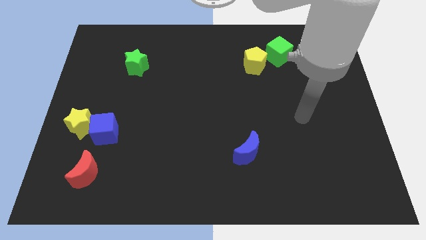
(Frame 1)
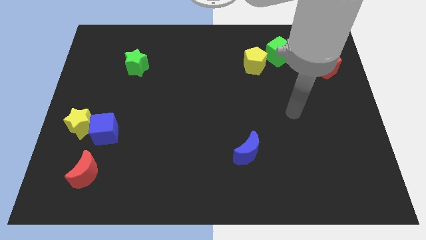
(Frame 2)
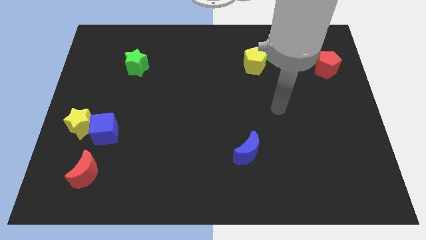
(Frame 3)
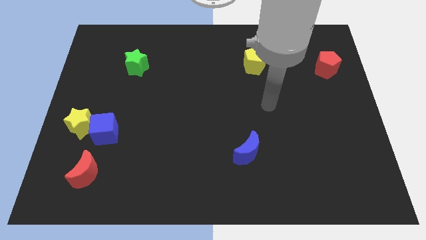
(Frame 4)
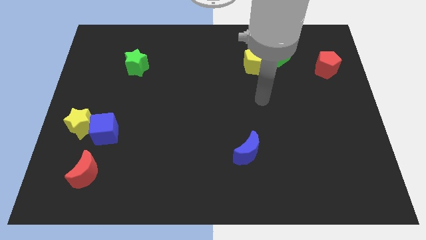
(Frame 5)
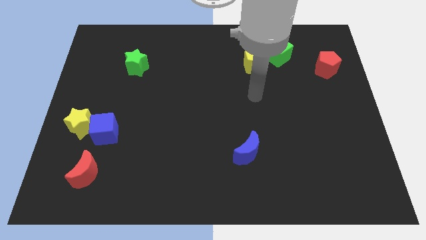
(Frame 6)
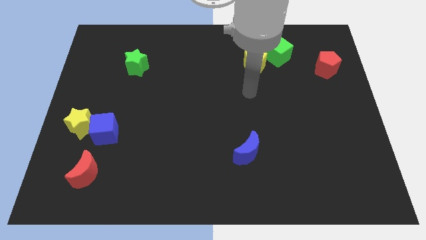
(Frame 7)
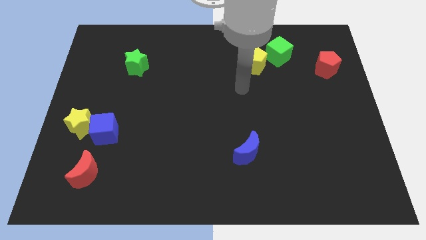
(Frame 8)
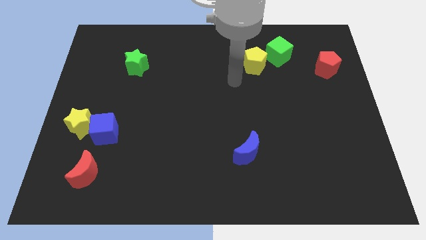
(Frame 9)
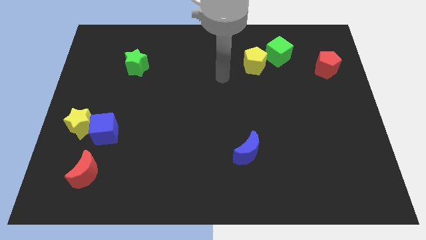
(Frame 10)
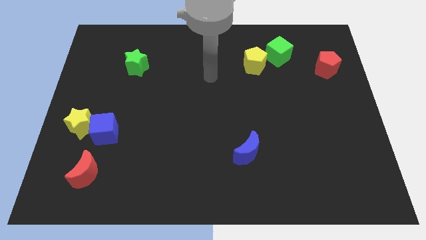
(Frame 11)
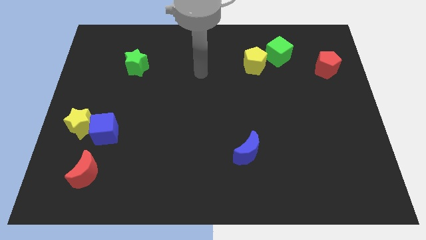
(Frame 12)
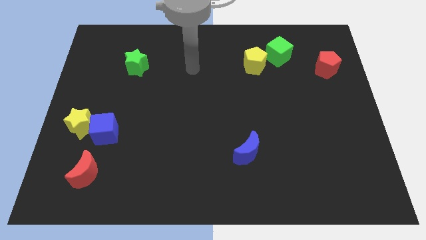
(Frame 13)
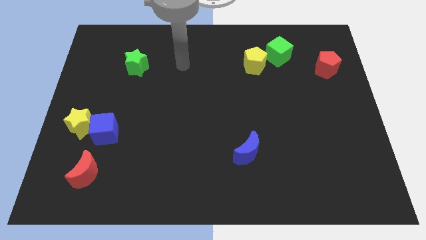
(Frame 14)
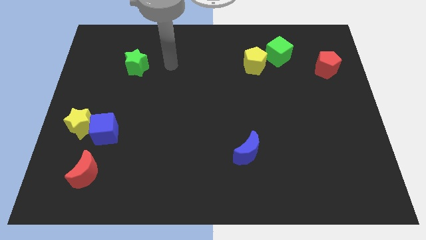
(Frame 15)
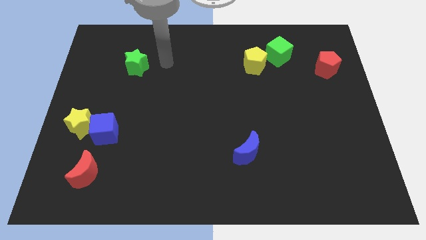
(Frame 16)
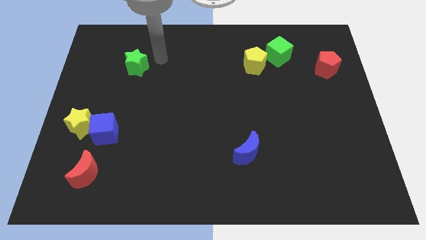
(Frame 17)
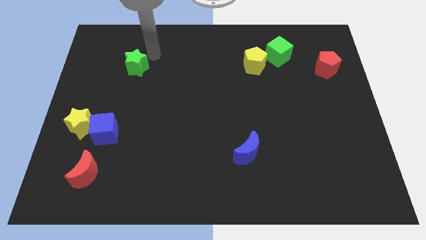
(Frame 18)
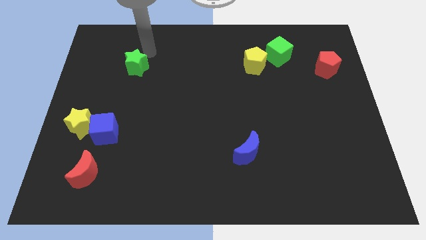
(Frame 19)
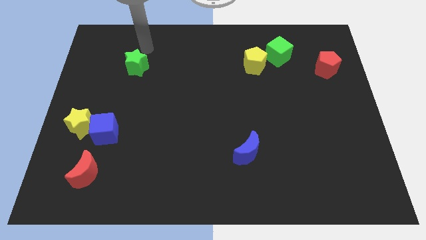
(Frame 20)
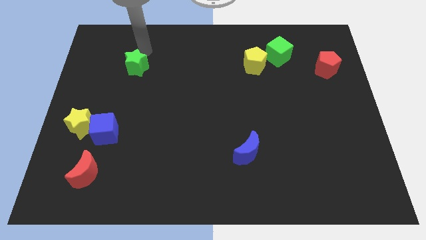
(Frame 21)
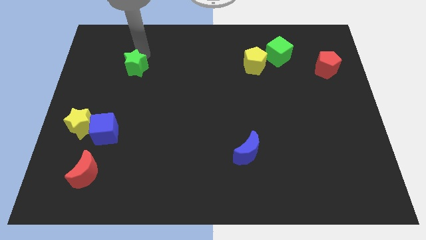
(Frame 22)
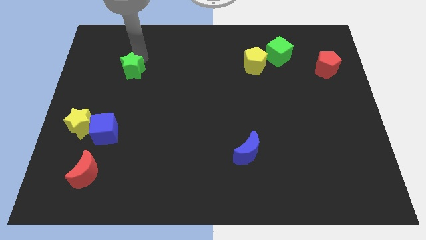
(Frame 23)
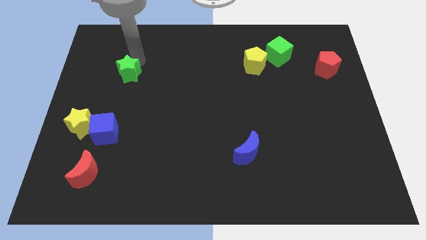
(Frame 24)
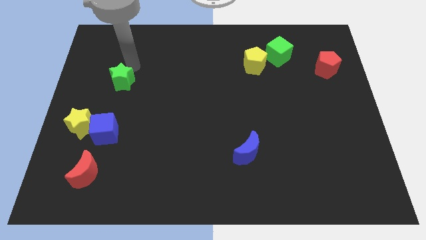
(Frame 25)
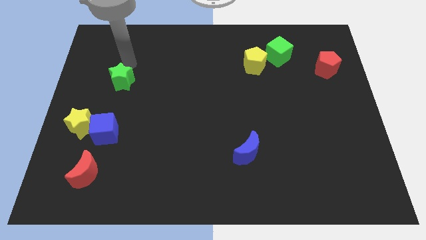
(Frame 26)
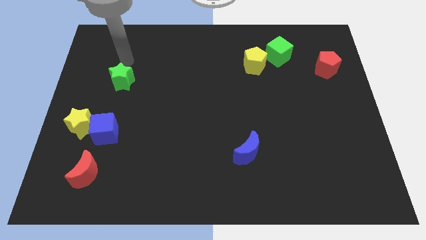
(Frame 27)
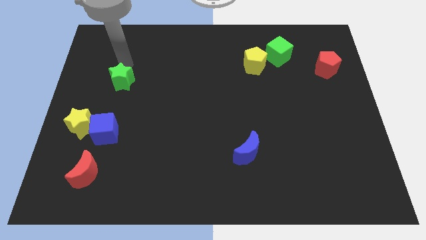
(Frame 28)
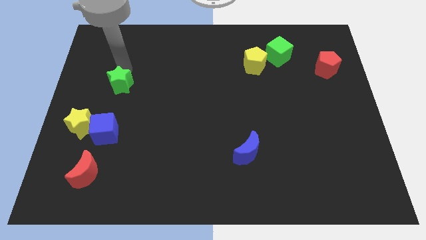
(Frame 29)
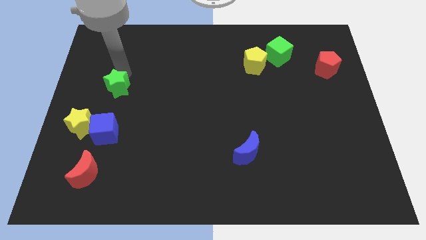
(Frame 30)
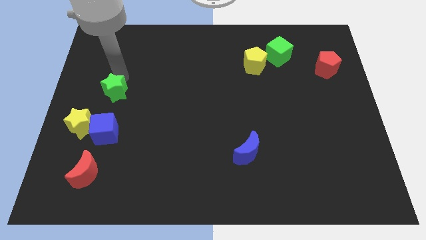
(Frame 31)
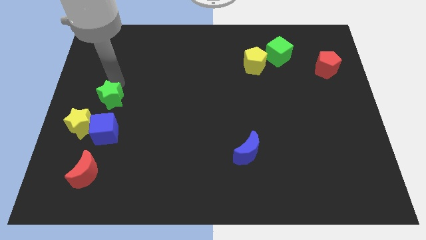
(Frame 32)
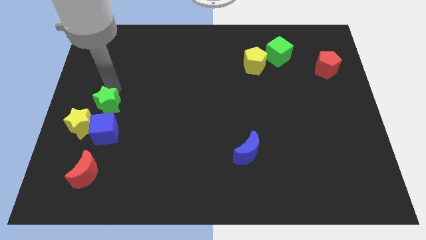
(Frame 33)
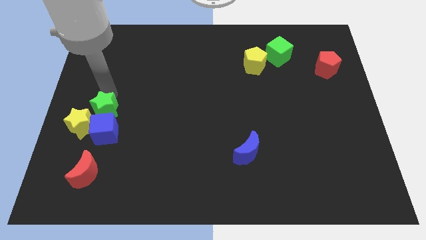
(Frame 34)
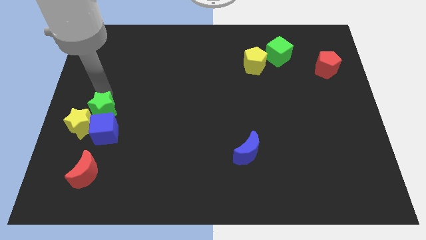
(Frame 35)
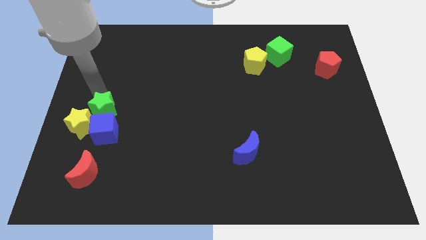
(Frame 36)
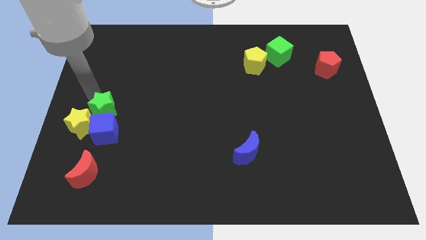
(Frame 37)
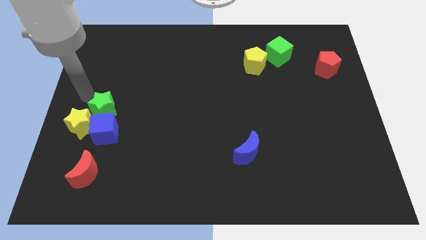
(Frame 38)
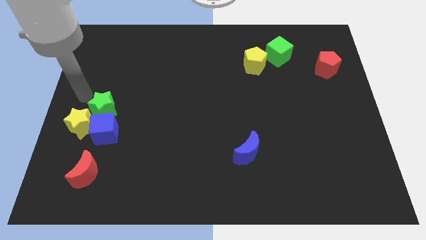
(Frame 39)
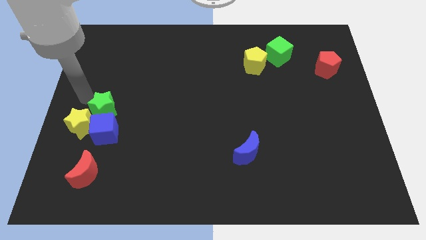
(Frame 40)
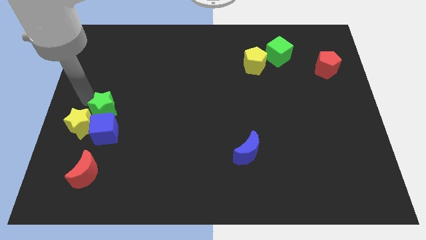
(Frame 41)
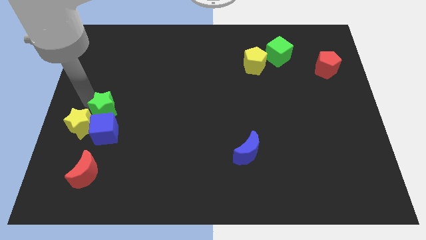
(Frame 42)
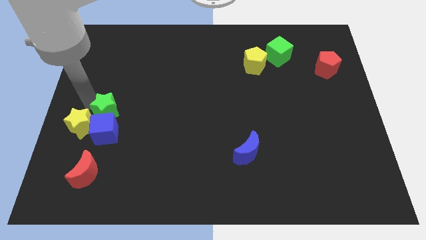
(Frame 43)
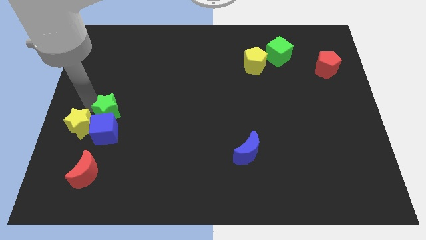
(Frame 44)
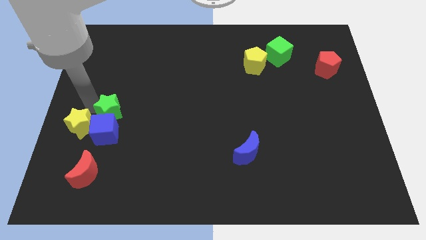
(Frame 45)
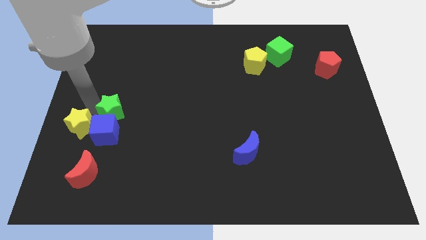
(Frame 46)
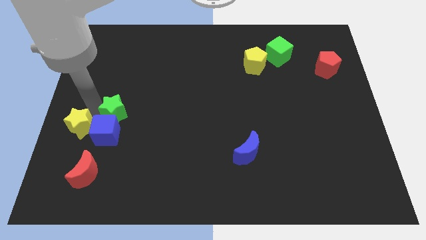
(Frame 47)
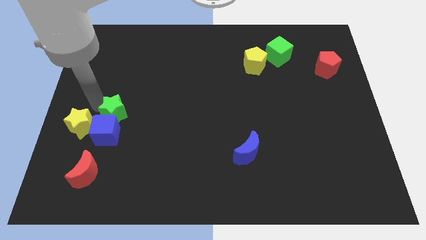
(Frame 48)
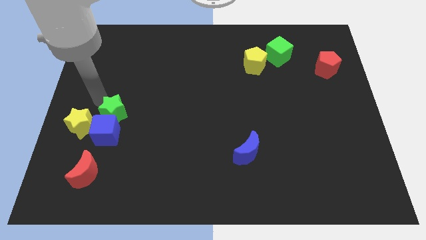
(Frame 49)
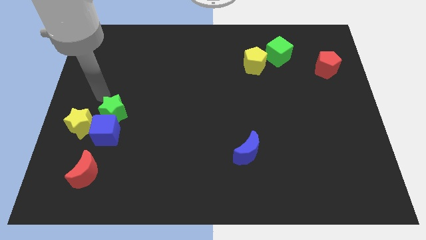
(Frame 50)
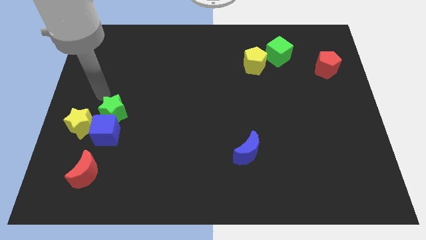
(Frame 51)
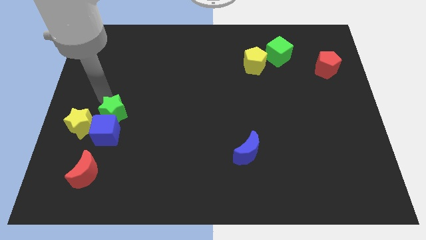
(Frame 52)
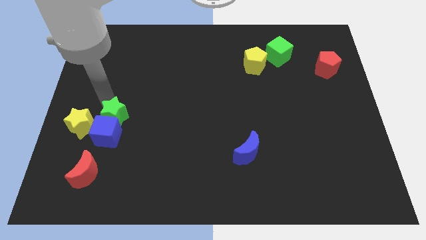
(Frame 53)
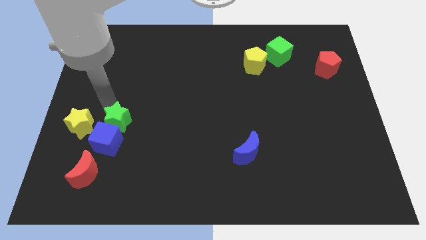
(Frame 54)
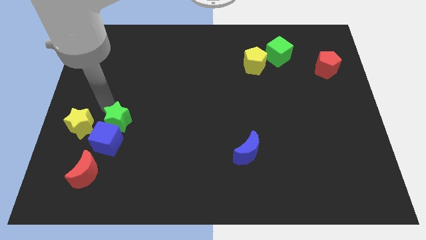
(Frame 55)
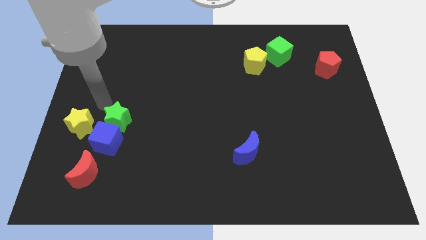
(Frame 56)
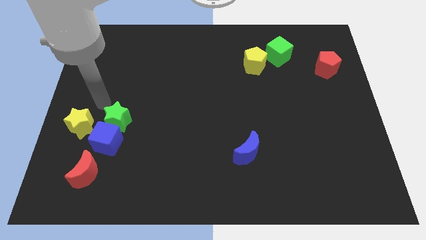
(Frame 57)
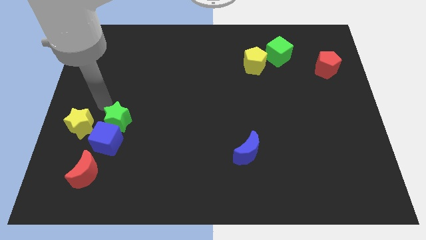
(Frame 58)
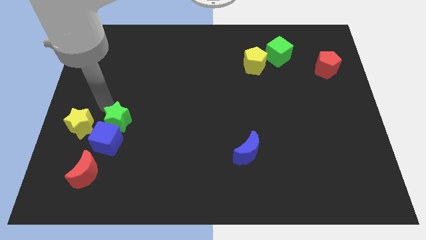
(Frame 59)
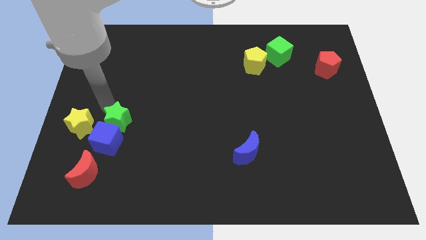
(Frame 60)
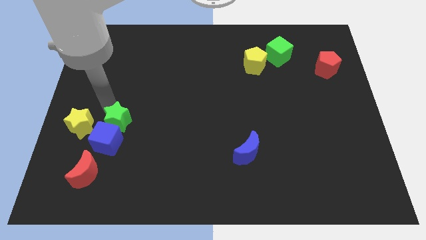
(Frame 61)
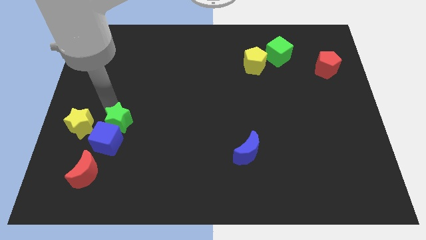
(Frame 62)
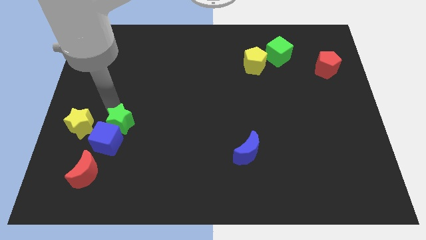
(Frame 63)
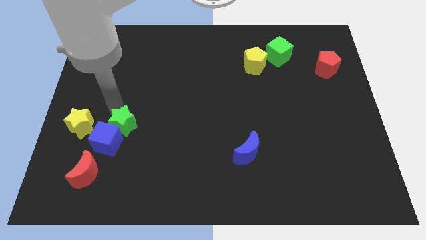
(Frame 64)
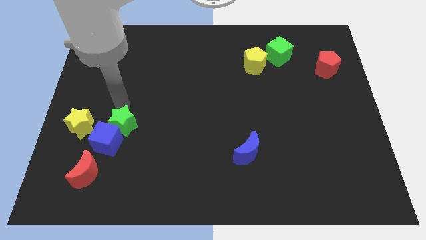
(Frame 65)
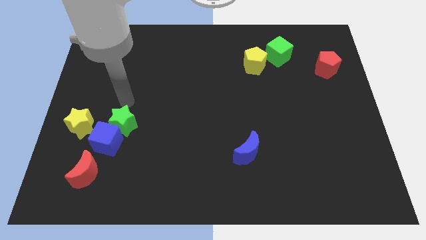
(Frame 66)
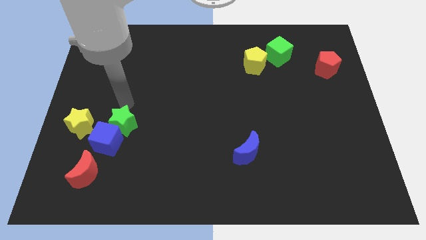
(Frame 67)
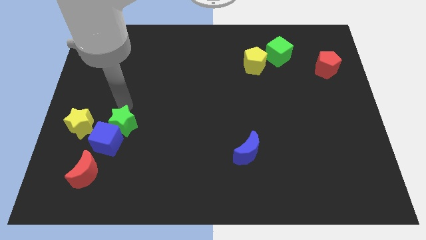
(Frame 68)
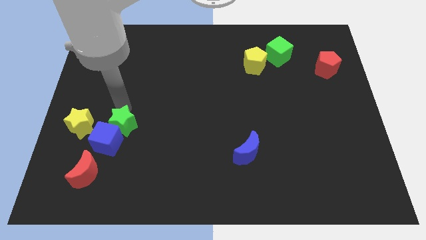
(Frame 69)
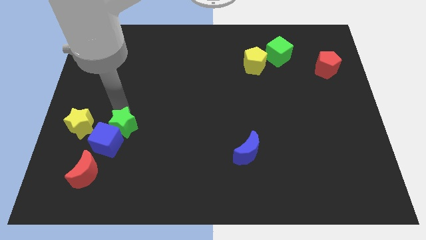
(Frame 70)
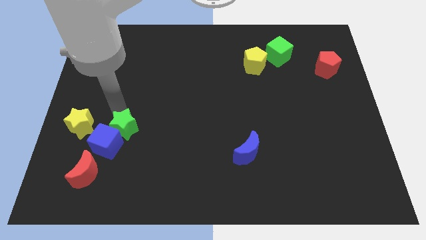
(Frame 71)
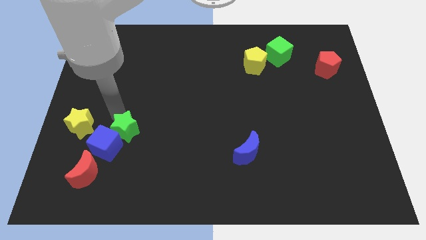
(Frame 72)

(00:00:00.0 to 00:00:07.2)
push the green star down

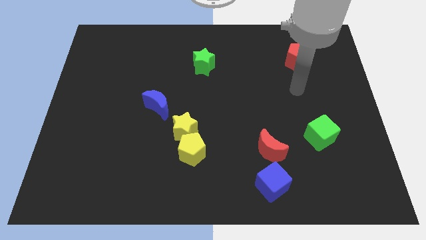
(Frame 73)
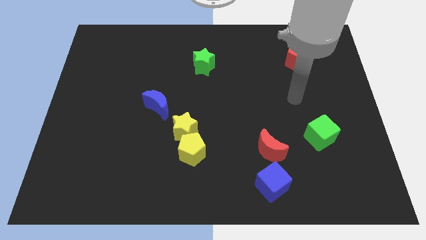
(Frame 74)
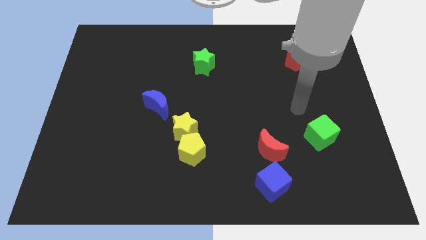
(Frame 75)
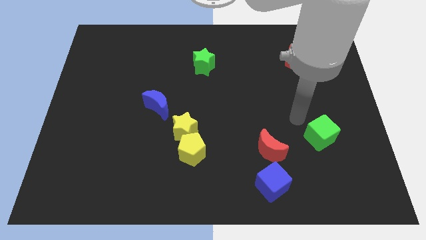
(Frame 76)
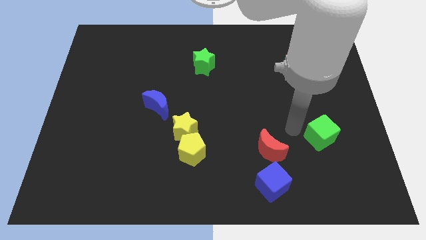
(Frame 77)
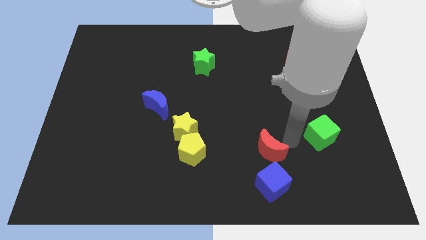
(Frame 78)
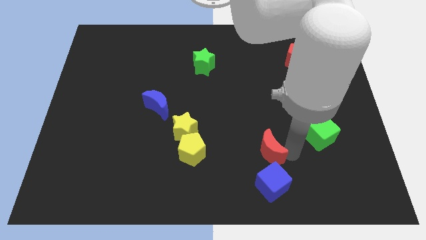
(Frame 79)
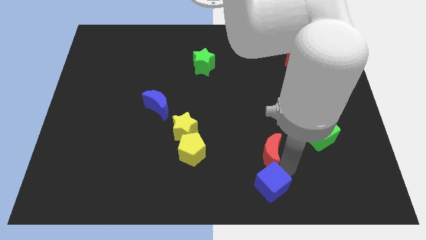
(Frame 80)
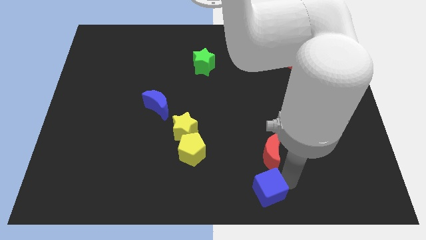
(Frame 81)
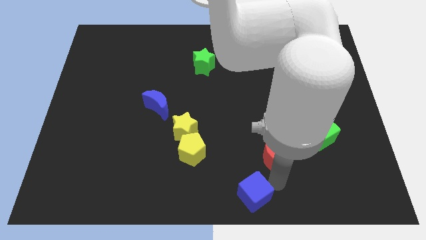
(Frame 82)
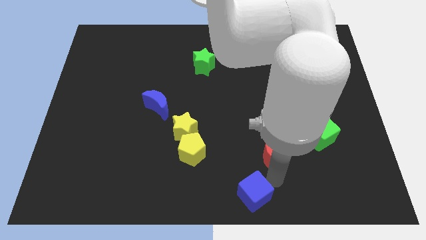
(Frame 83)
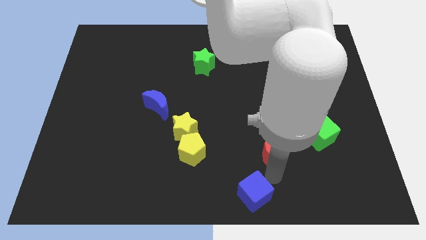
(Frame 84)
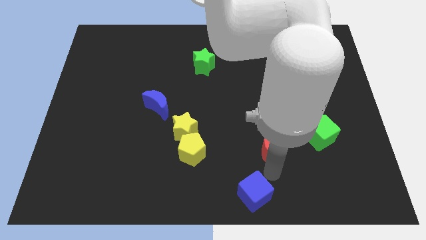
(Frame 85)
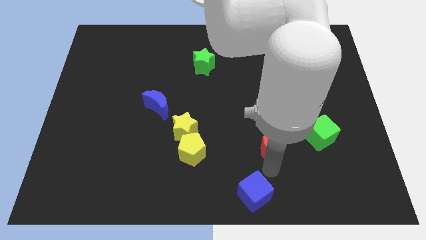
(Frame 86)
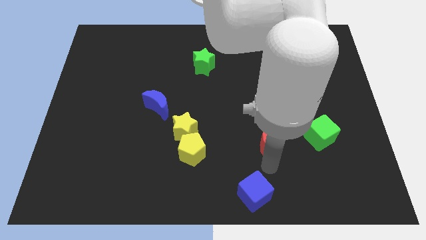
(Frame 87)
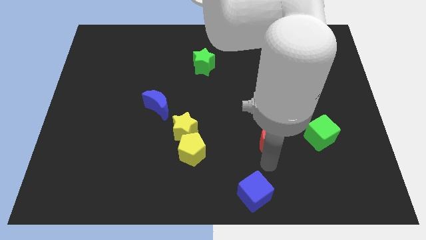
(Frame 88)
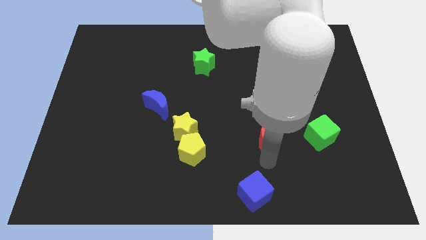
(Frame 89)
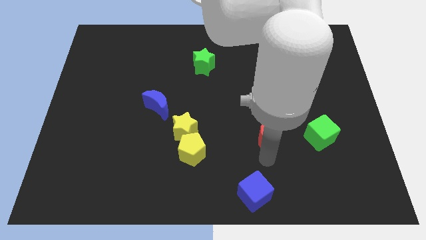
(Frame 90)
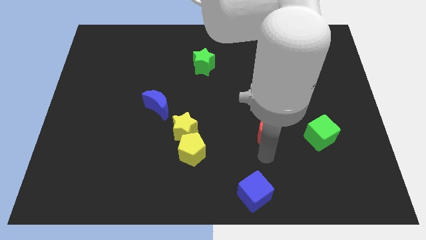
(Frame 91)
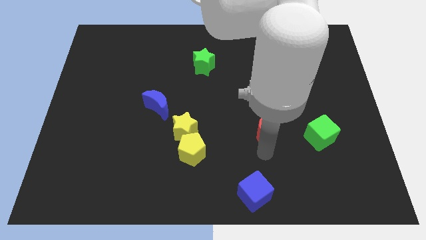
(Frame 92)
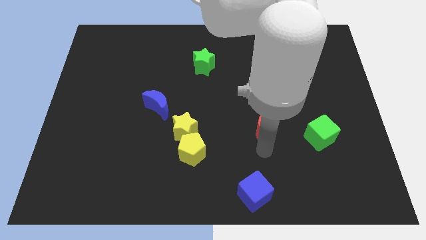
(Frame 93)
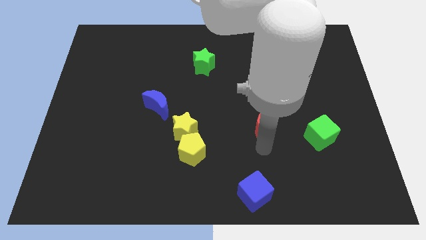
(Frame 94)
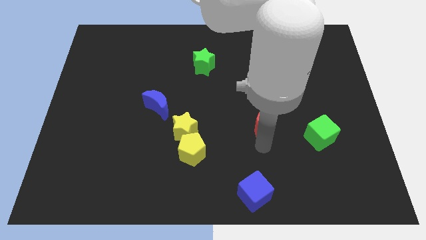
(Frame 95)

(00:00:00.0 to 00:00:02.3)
slide the red moon a little bit up
